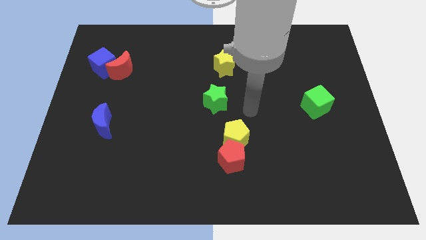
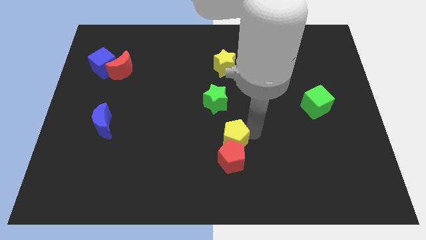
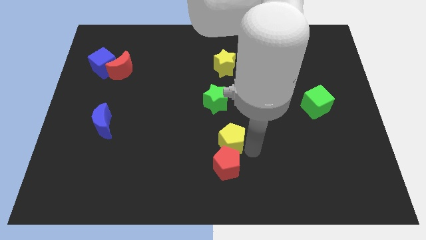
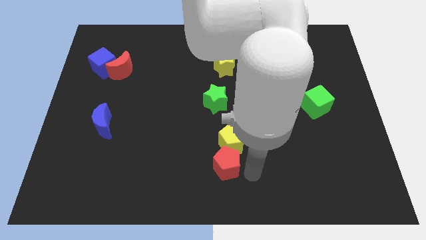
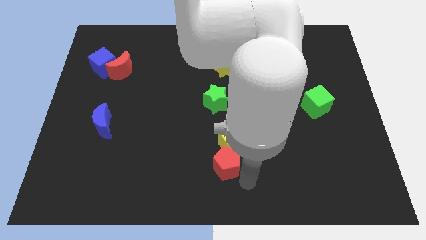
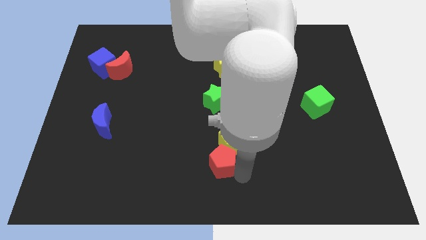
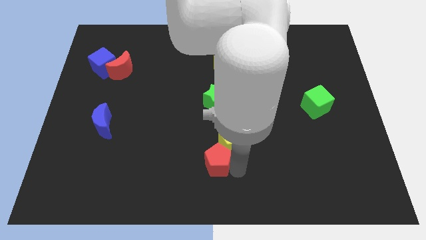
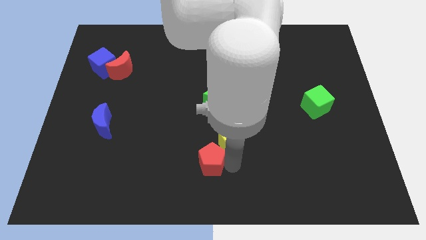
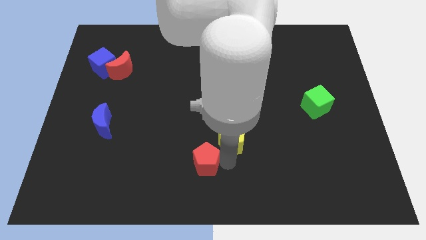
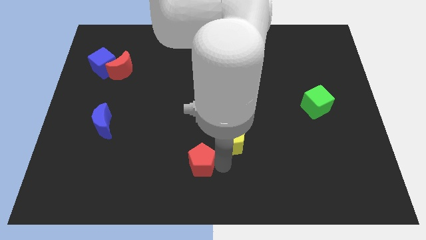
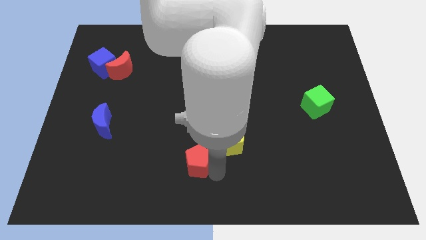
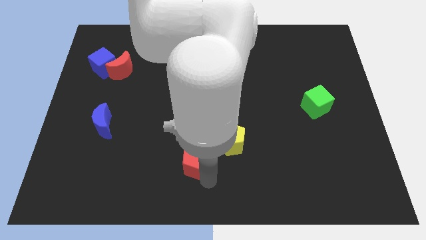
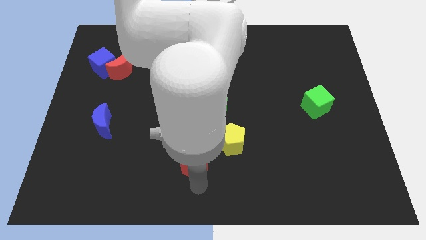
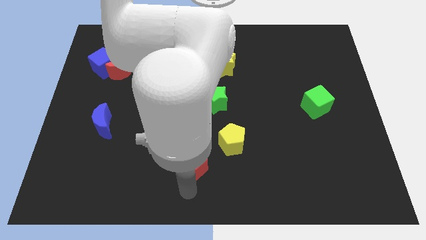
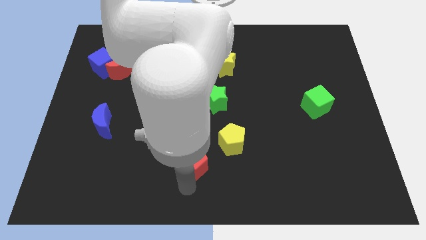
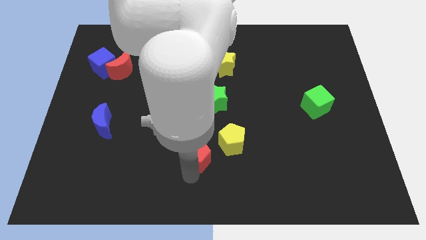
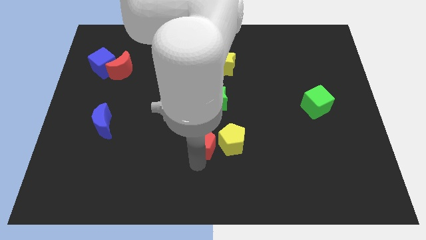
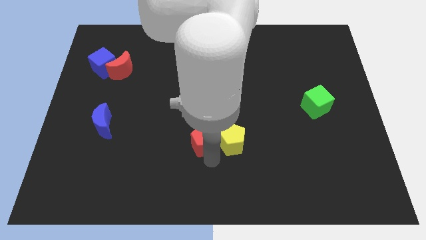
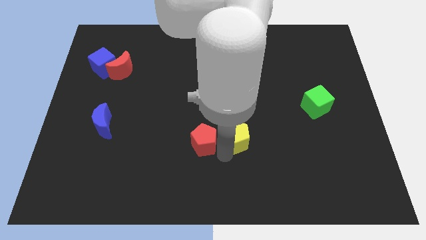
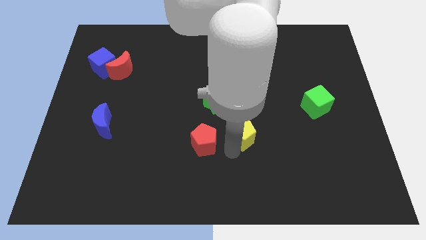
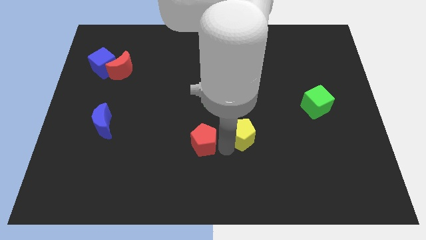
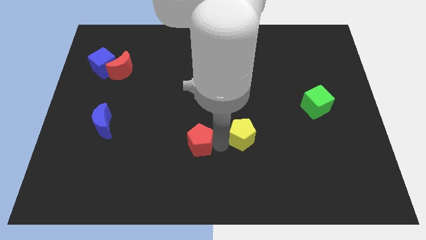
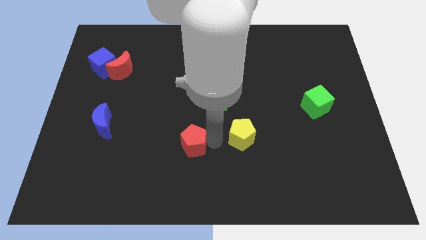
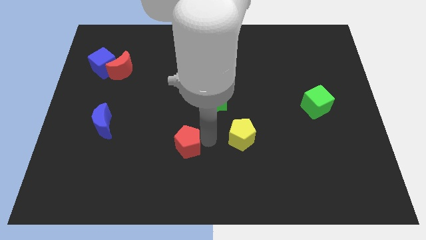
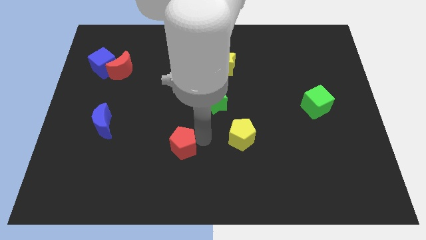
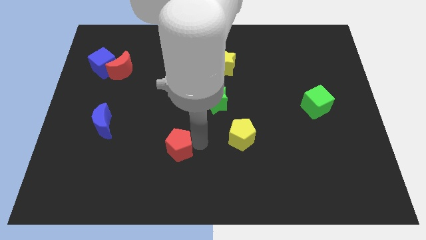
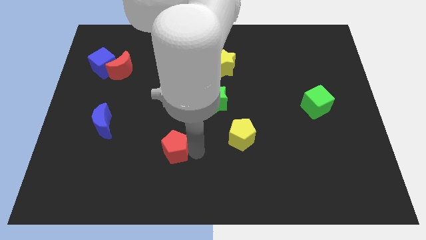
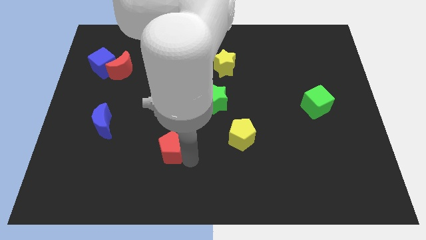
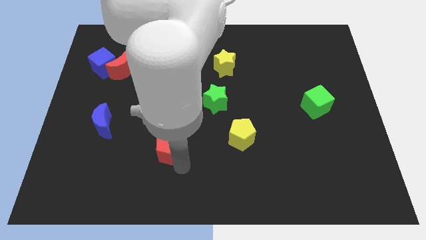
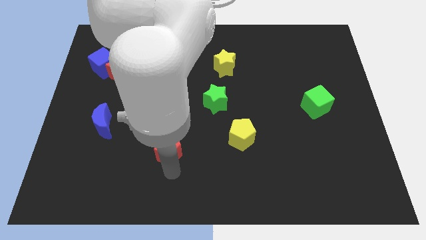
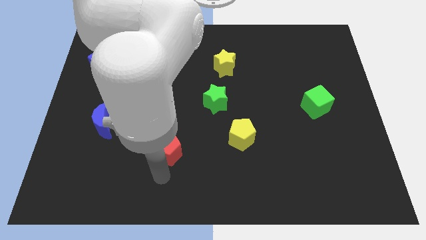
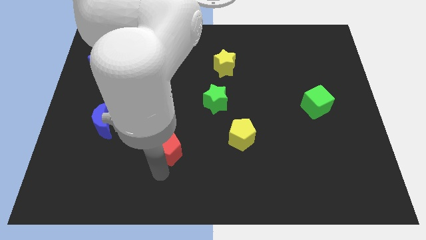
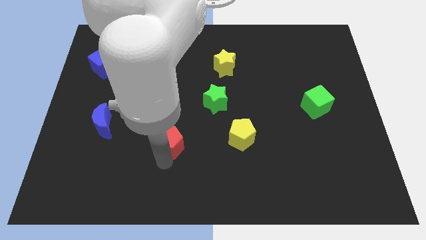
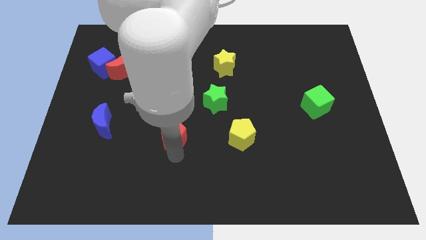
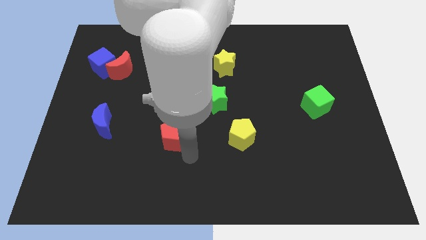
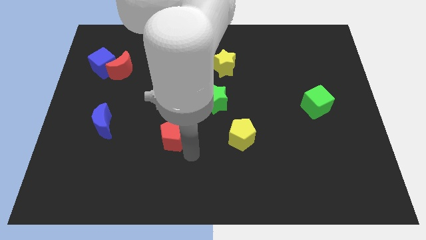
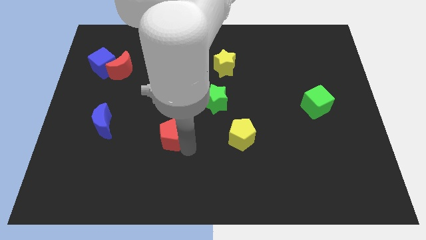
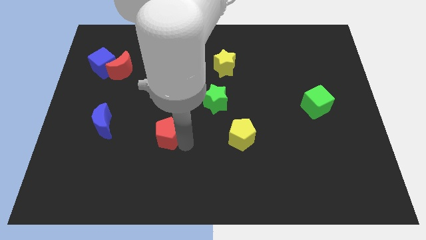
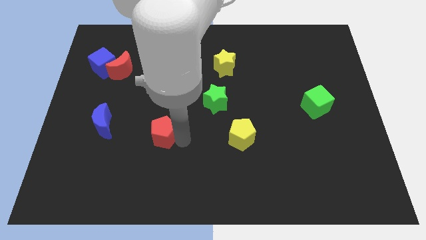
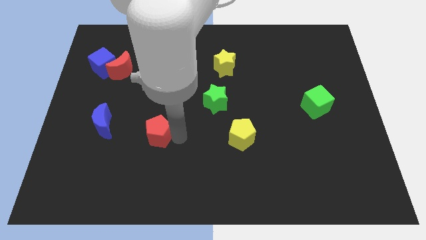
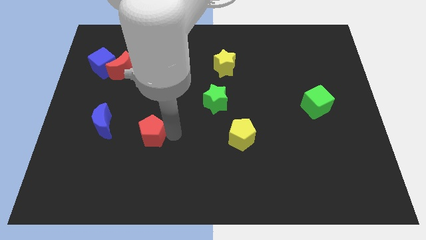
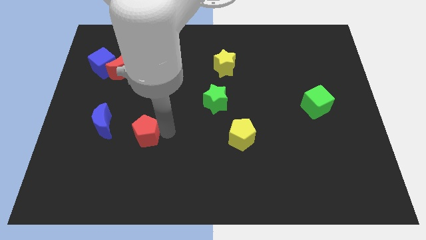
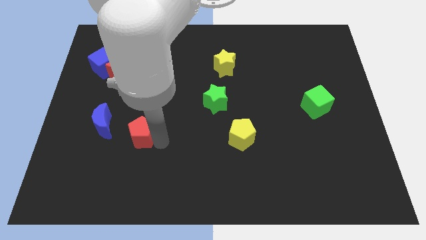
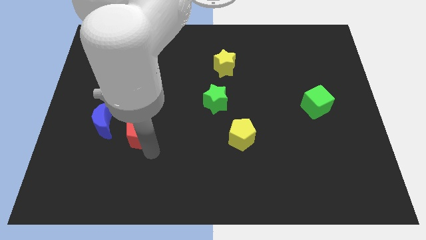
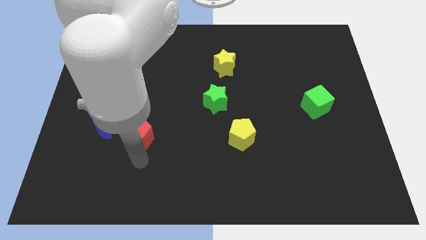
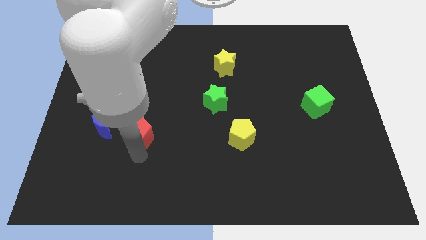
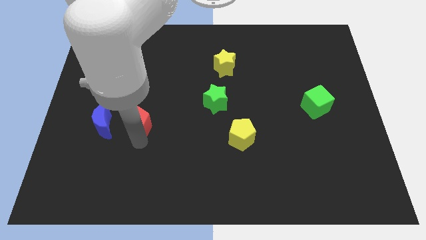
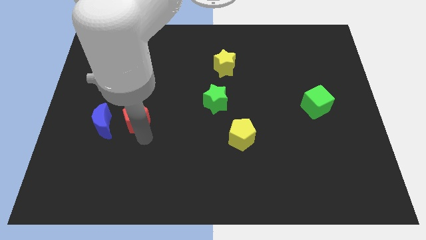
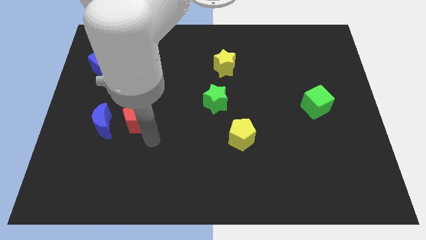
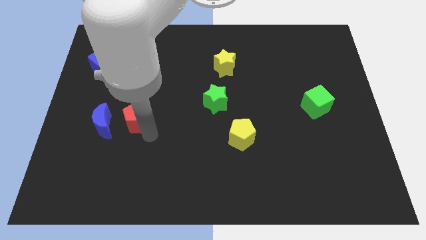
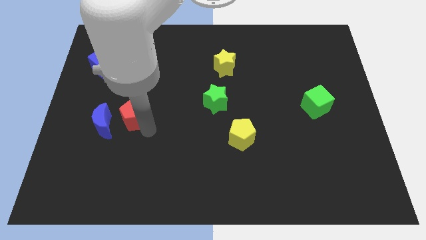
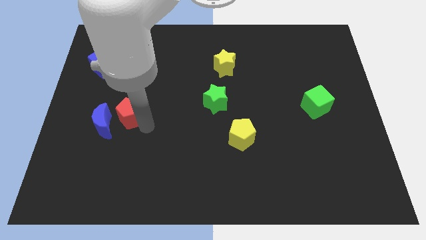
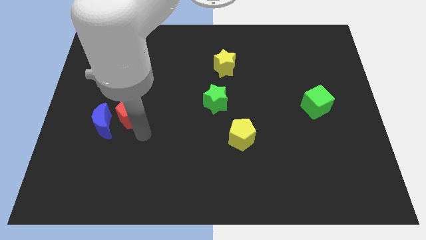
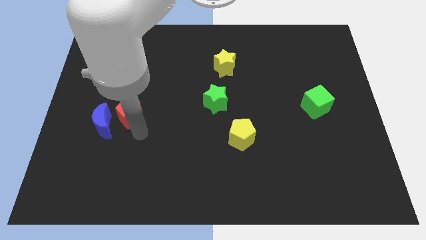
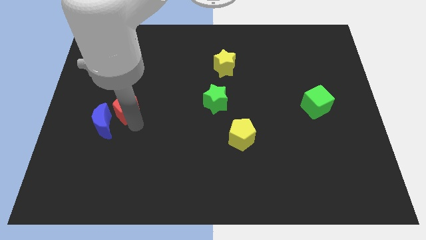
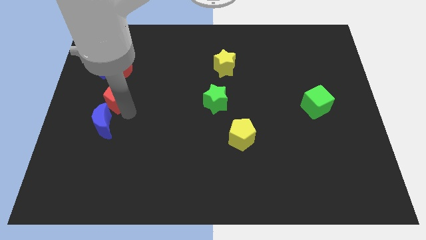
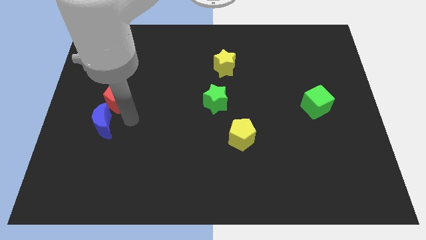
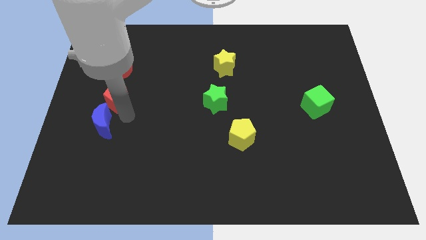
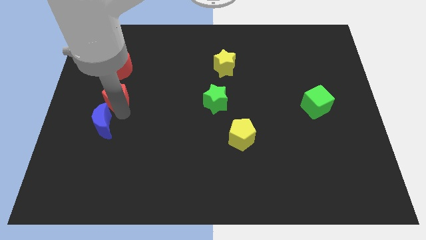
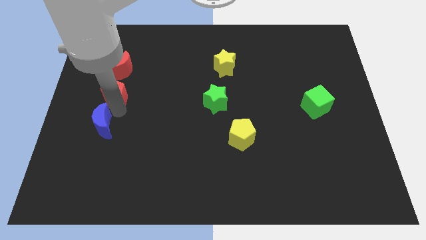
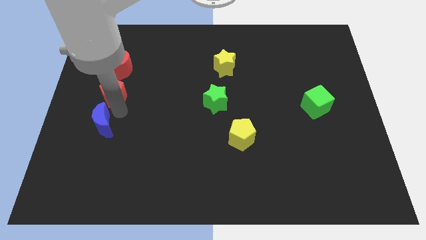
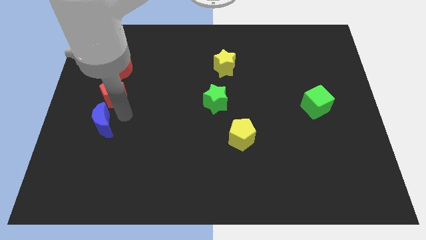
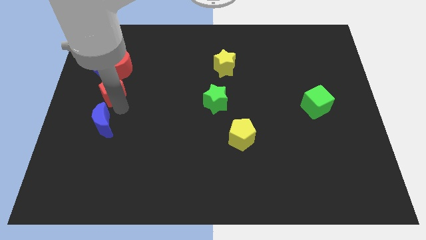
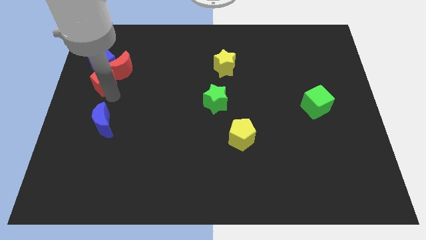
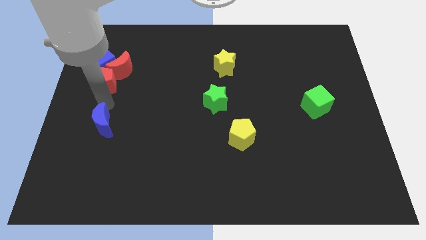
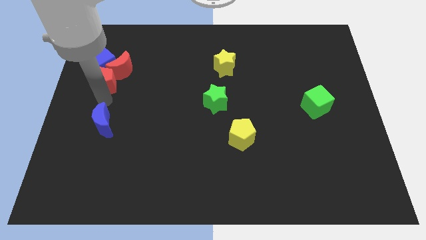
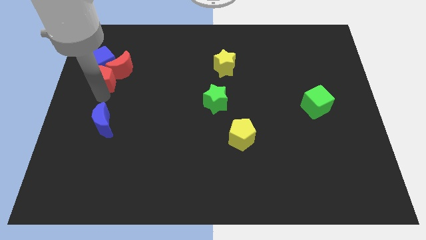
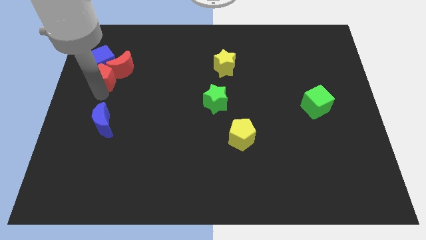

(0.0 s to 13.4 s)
slide the red pentagon next to the blue cube
